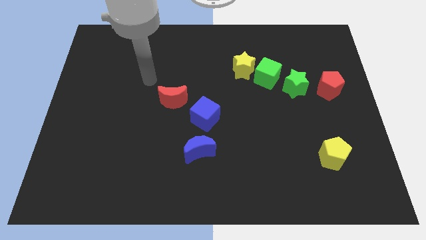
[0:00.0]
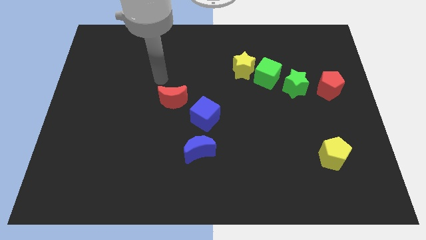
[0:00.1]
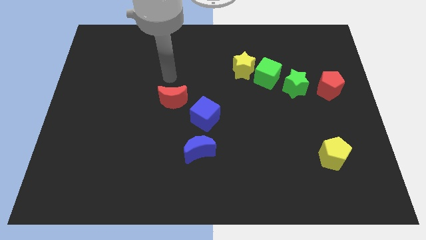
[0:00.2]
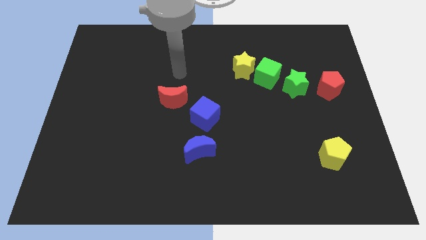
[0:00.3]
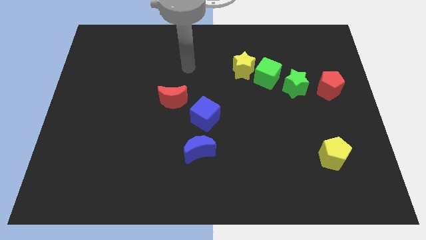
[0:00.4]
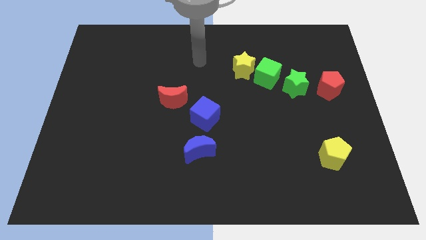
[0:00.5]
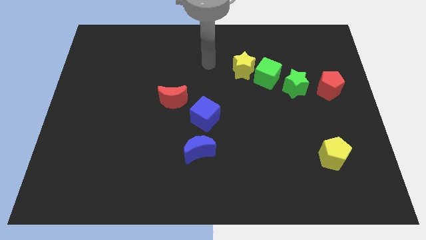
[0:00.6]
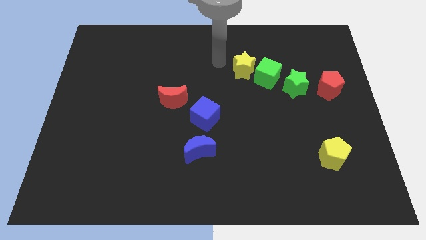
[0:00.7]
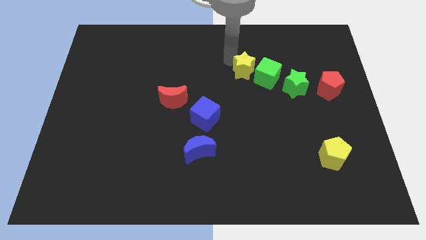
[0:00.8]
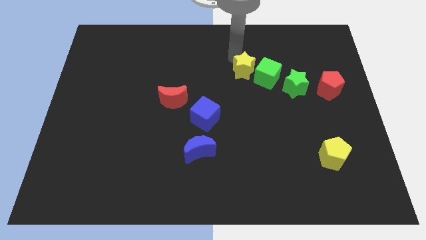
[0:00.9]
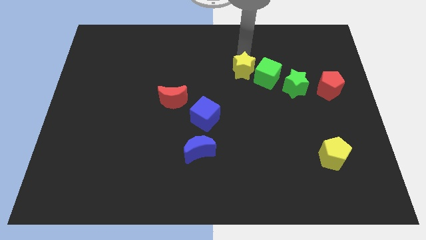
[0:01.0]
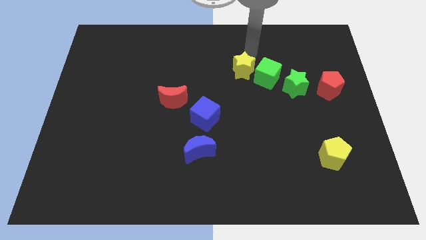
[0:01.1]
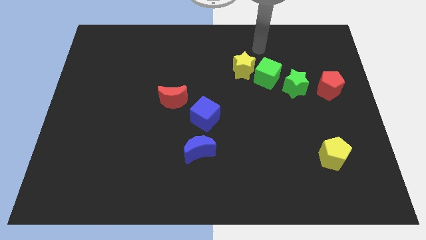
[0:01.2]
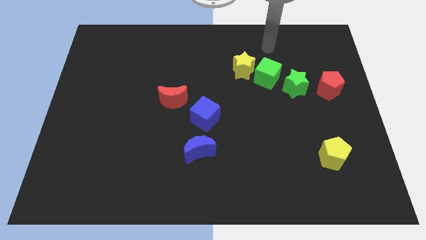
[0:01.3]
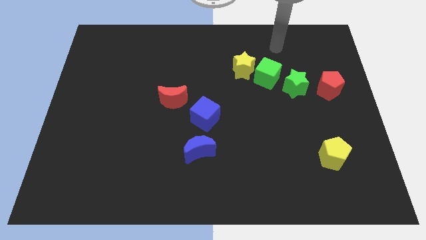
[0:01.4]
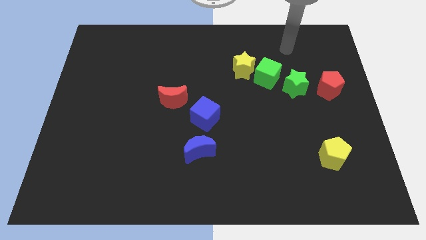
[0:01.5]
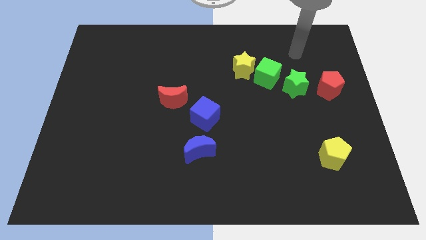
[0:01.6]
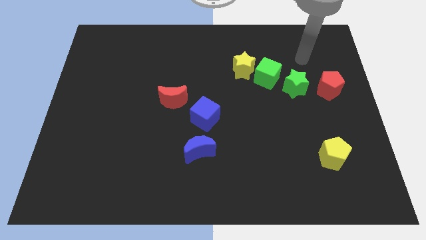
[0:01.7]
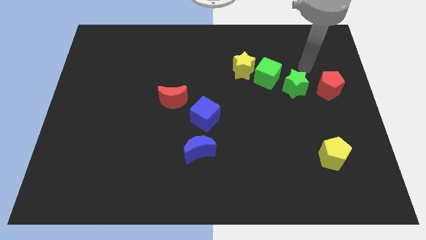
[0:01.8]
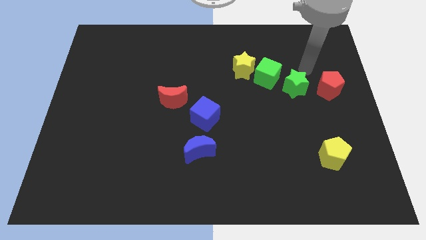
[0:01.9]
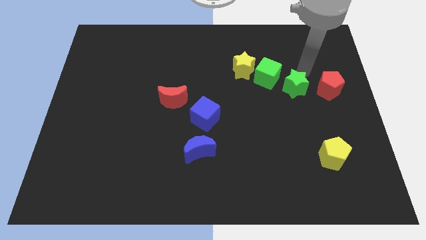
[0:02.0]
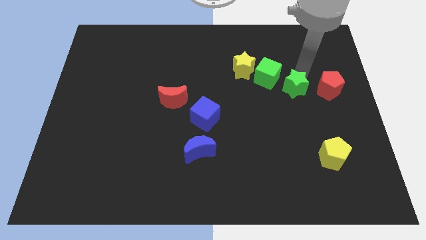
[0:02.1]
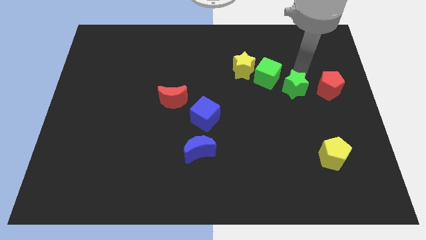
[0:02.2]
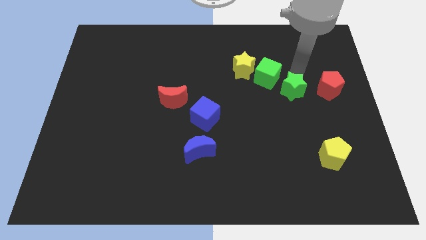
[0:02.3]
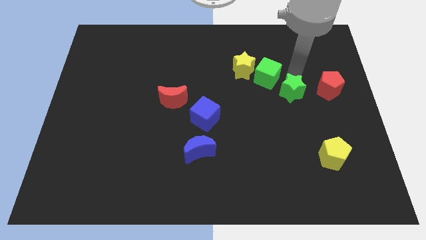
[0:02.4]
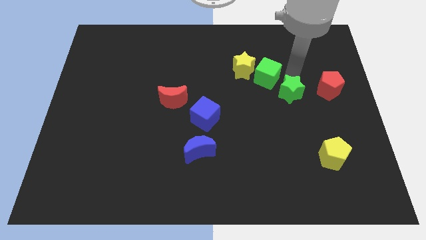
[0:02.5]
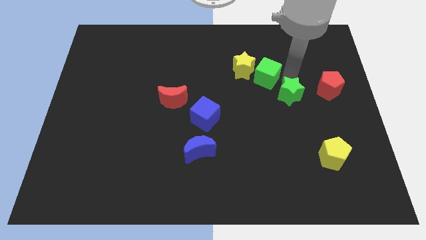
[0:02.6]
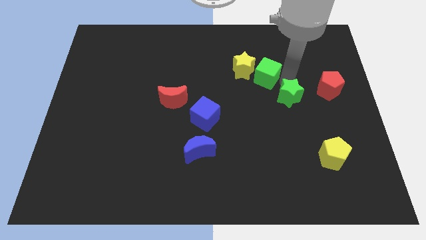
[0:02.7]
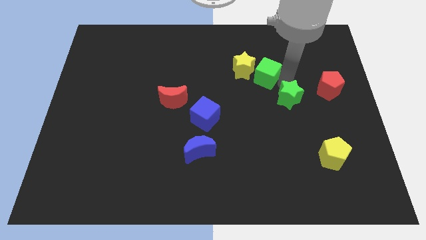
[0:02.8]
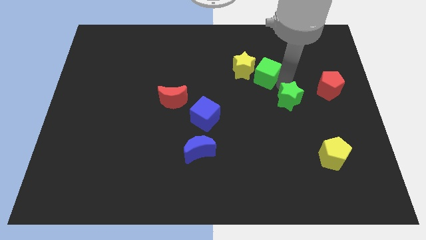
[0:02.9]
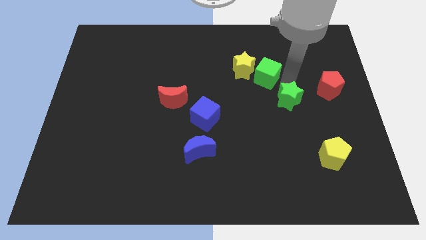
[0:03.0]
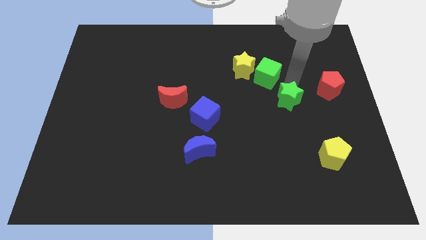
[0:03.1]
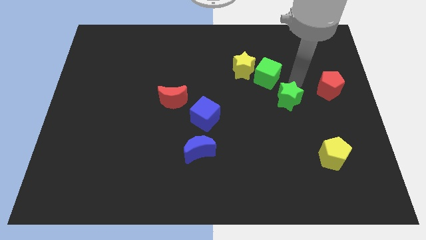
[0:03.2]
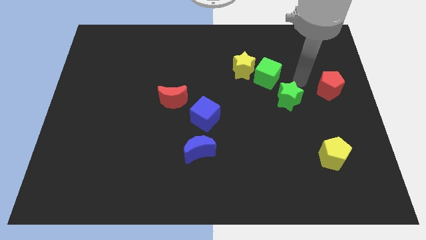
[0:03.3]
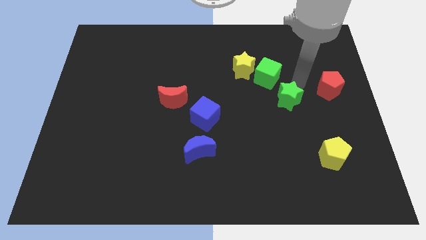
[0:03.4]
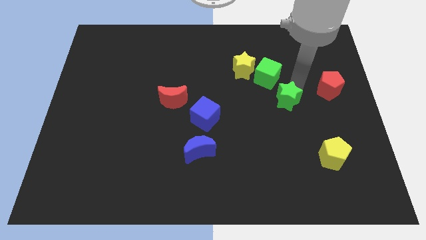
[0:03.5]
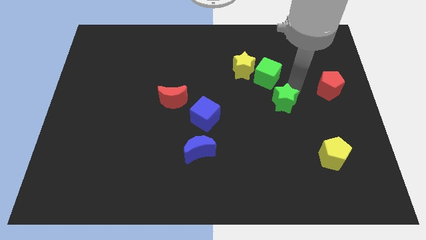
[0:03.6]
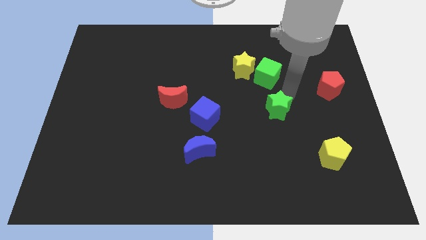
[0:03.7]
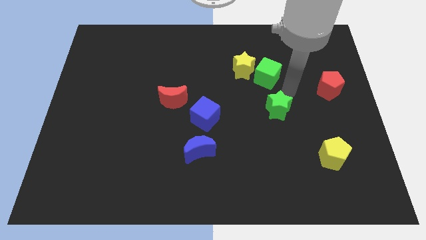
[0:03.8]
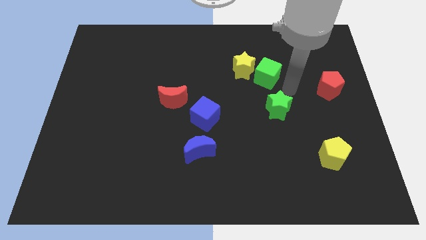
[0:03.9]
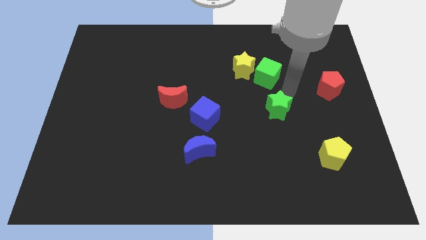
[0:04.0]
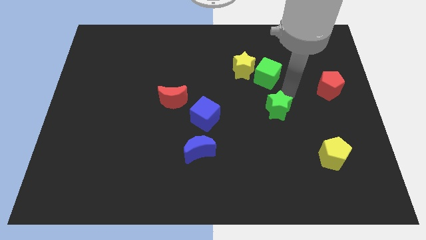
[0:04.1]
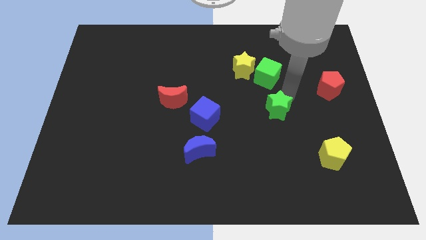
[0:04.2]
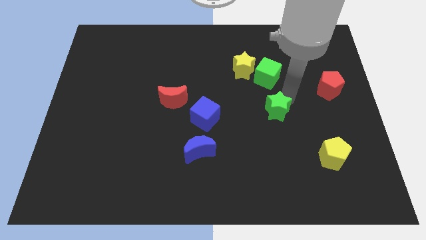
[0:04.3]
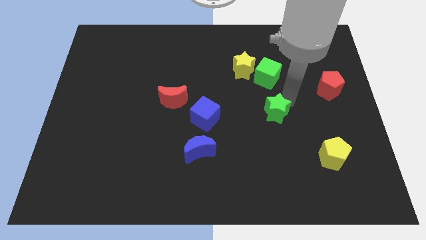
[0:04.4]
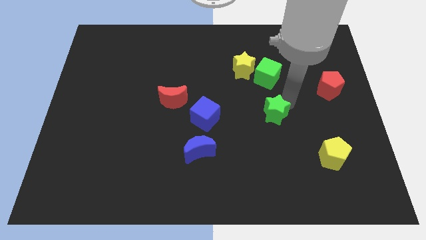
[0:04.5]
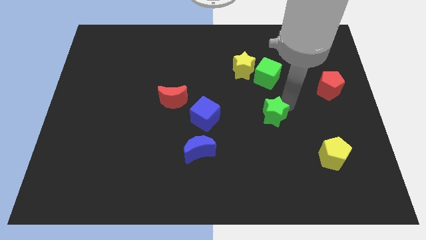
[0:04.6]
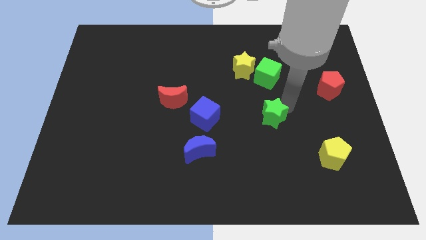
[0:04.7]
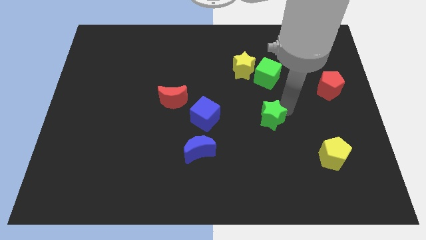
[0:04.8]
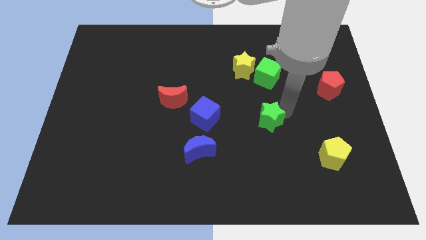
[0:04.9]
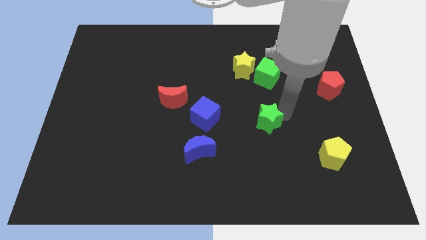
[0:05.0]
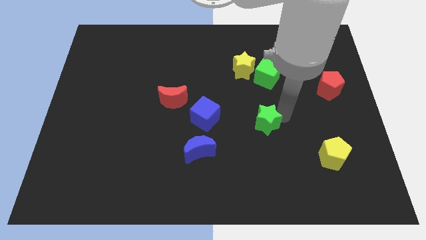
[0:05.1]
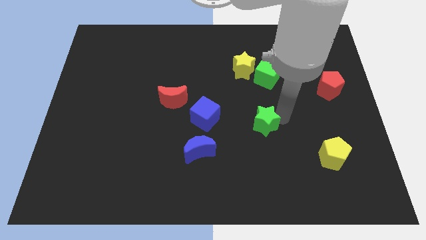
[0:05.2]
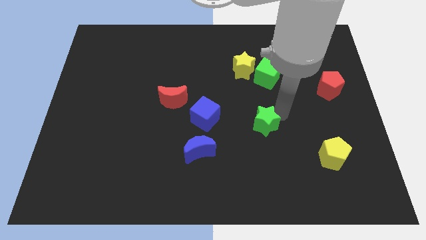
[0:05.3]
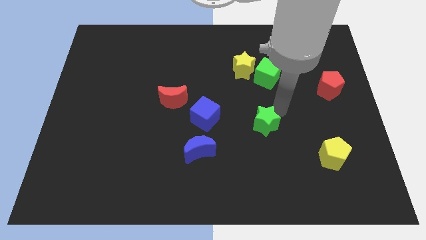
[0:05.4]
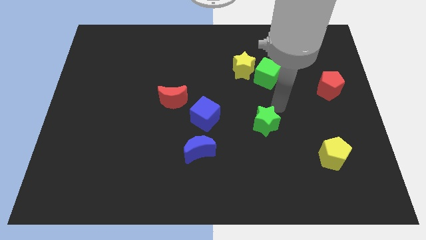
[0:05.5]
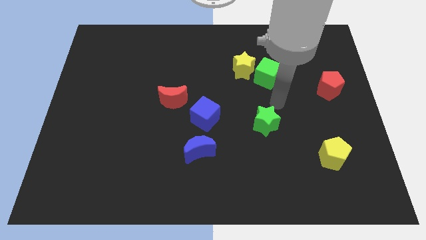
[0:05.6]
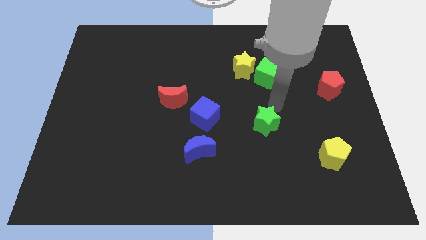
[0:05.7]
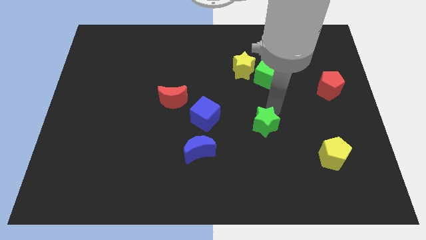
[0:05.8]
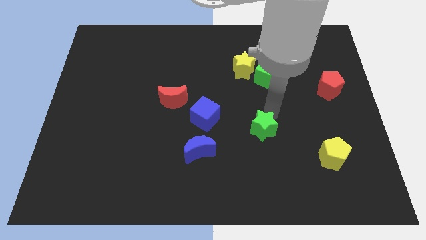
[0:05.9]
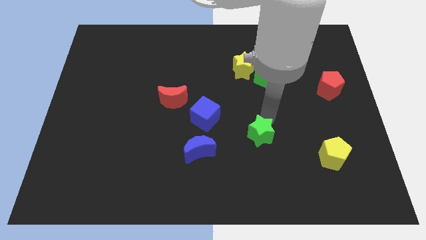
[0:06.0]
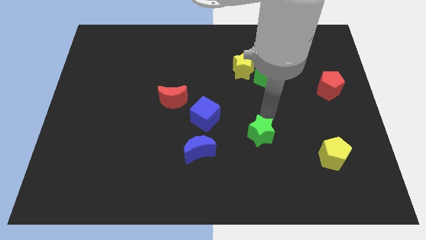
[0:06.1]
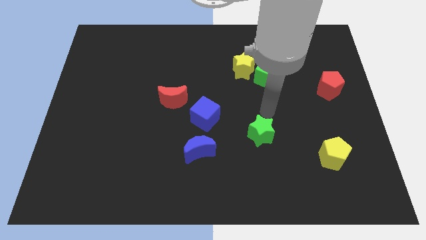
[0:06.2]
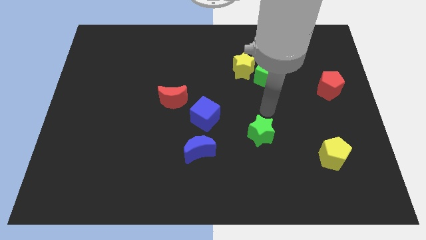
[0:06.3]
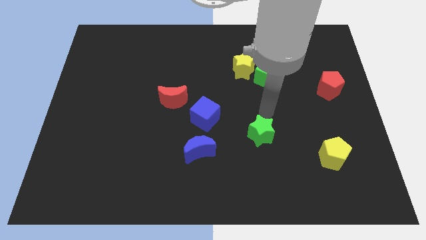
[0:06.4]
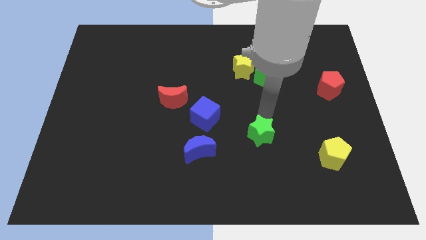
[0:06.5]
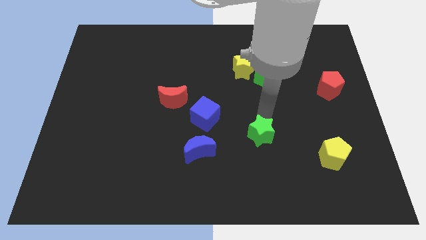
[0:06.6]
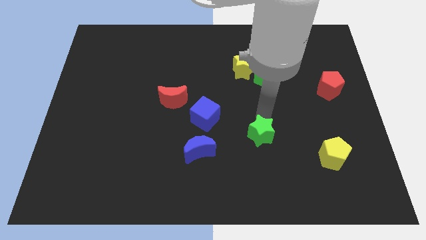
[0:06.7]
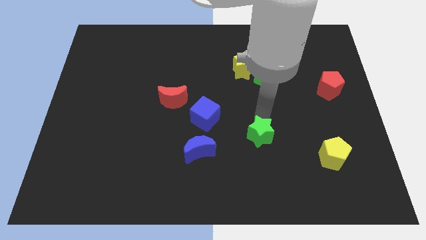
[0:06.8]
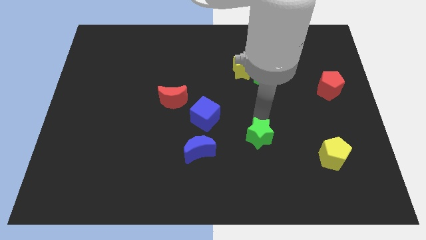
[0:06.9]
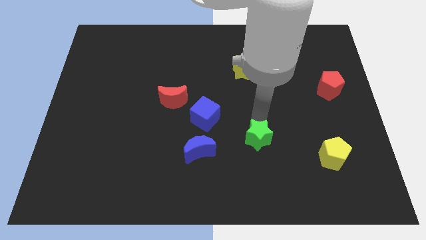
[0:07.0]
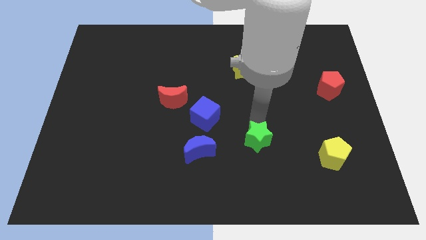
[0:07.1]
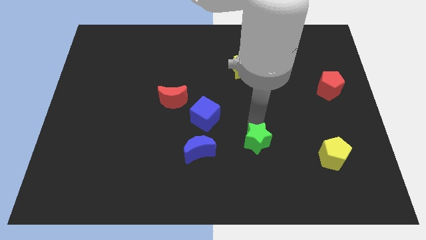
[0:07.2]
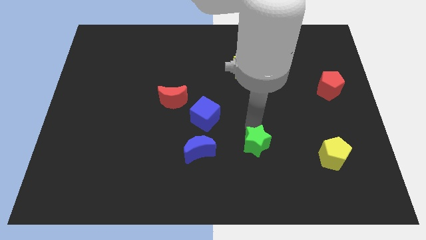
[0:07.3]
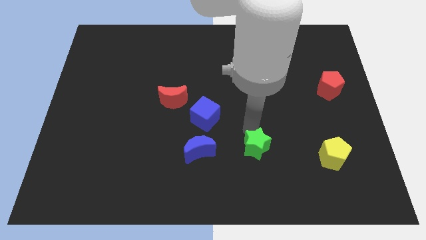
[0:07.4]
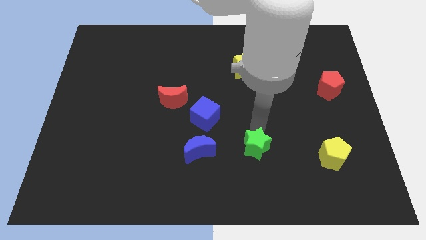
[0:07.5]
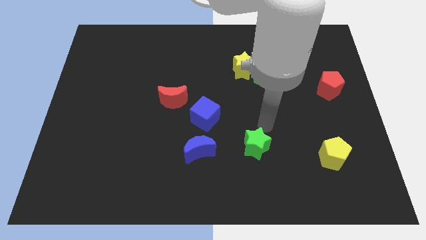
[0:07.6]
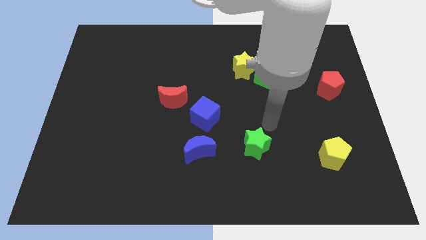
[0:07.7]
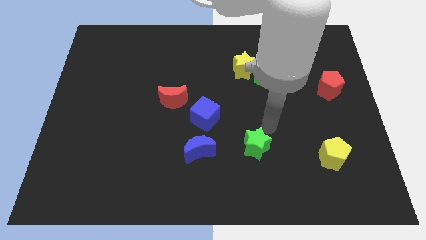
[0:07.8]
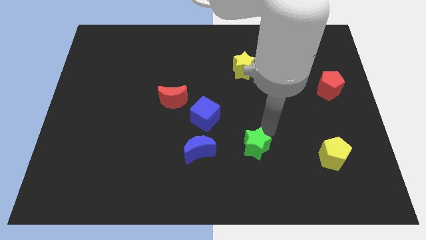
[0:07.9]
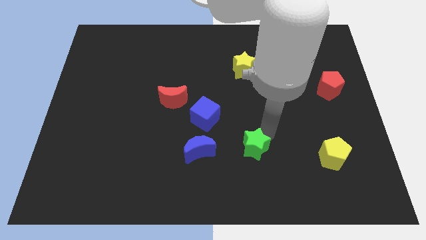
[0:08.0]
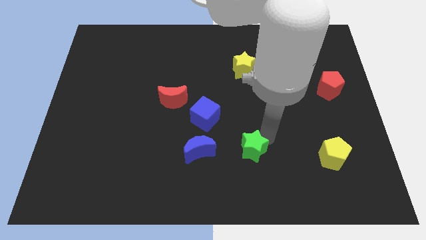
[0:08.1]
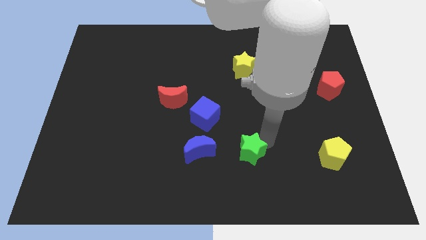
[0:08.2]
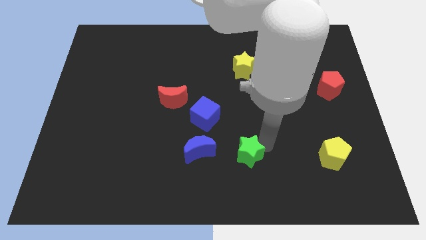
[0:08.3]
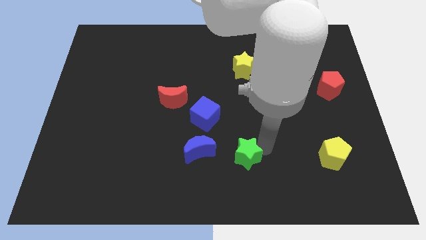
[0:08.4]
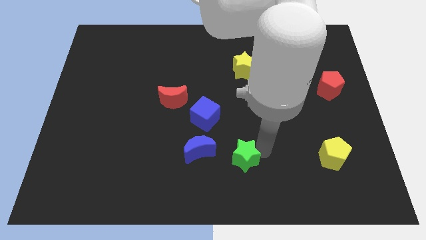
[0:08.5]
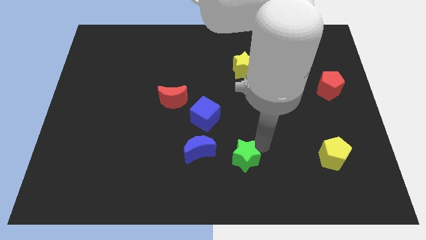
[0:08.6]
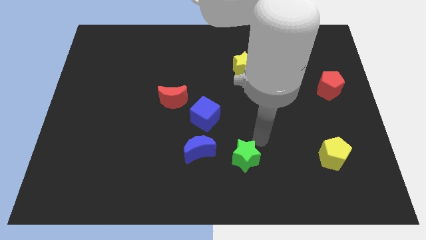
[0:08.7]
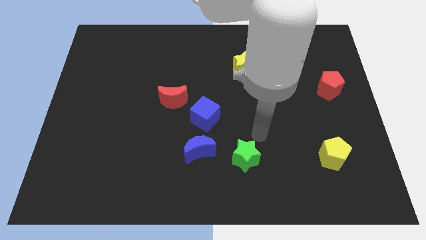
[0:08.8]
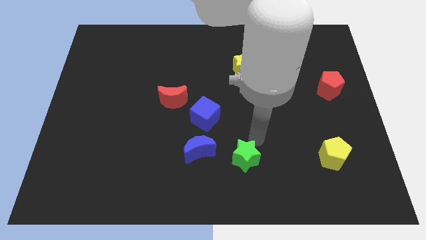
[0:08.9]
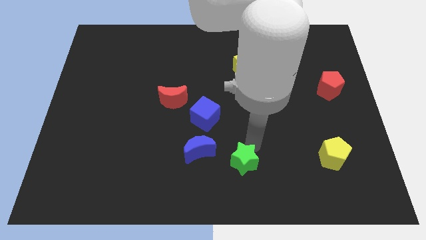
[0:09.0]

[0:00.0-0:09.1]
put the green star to the bottom
